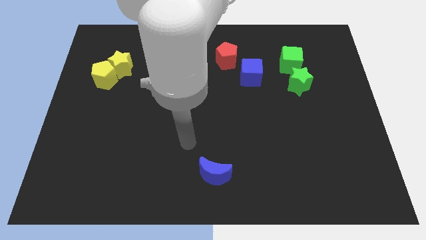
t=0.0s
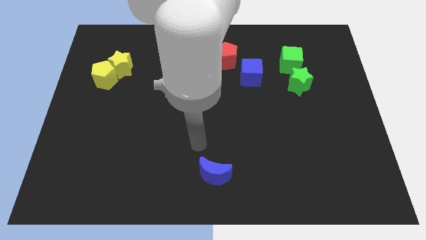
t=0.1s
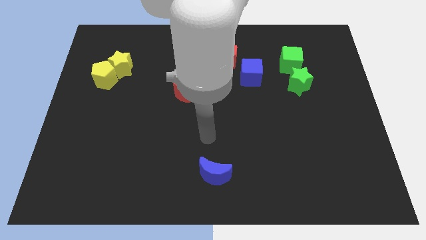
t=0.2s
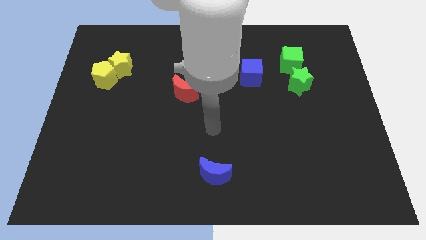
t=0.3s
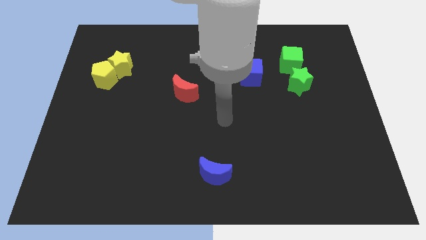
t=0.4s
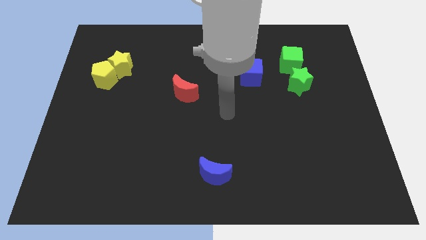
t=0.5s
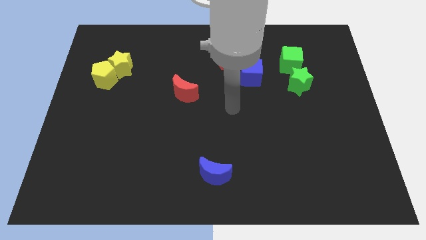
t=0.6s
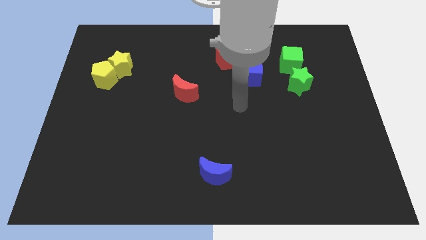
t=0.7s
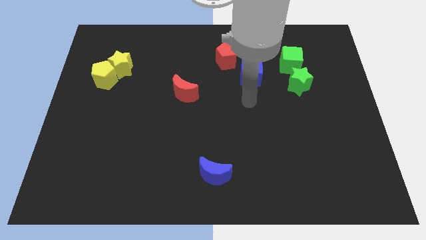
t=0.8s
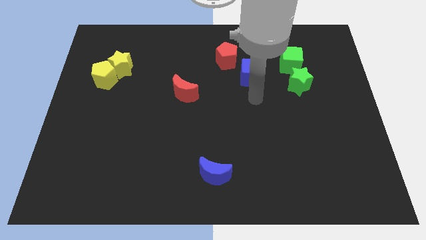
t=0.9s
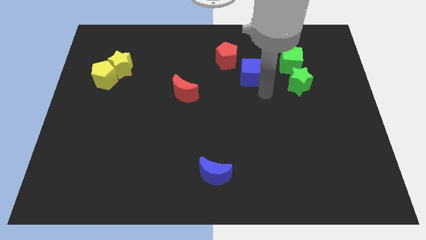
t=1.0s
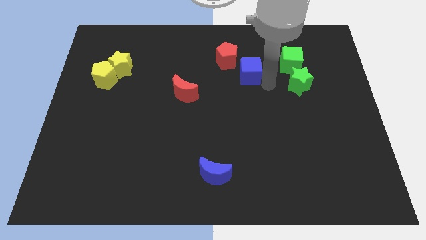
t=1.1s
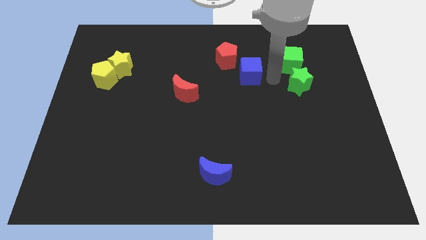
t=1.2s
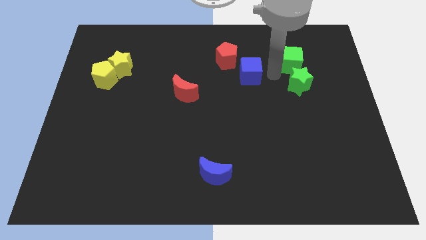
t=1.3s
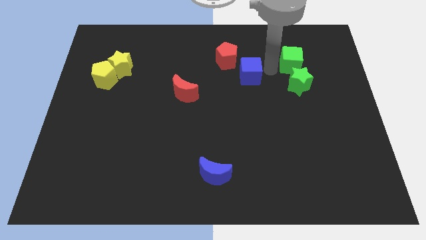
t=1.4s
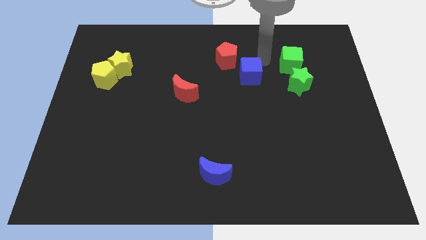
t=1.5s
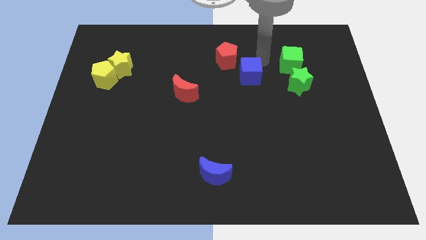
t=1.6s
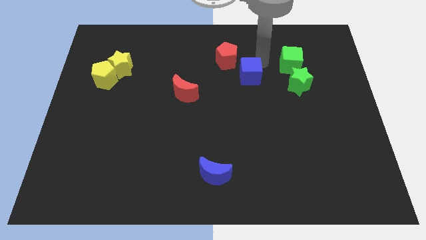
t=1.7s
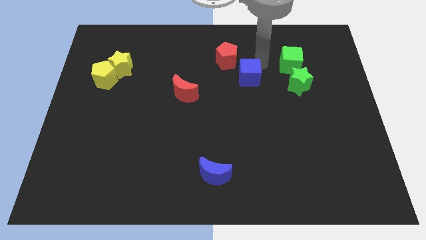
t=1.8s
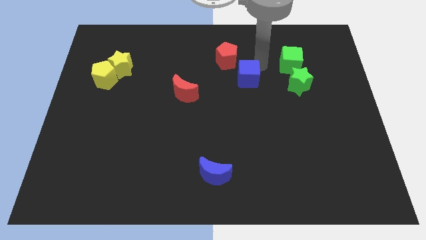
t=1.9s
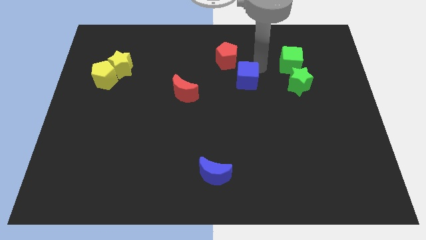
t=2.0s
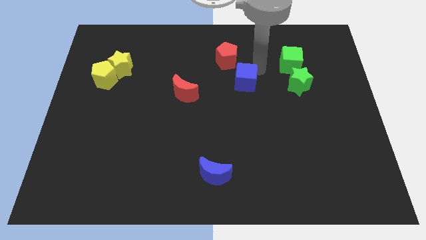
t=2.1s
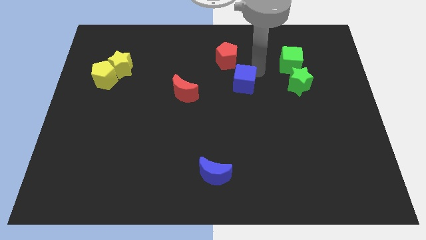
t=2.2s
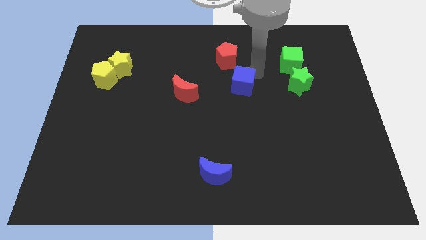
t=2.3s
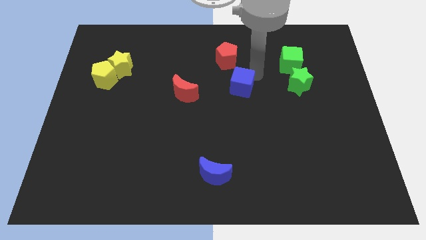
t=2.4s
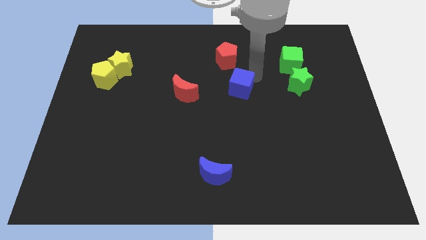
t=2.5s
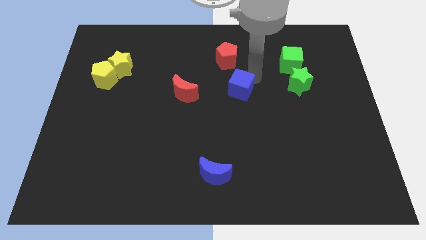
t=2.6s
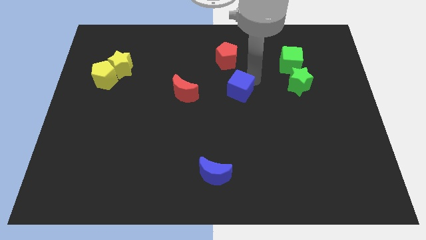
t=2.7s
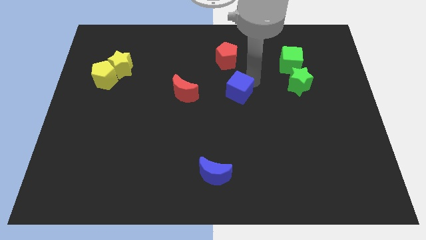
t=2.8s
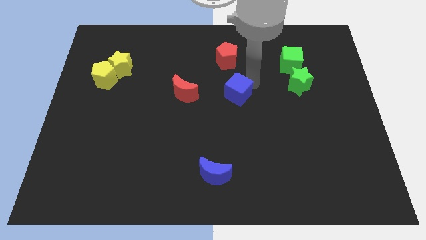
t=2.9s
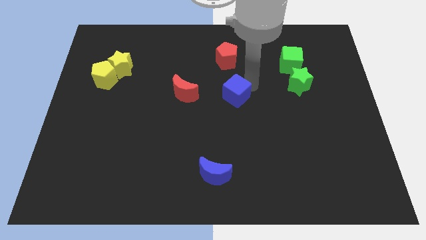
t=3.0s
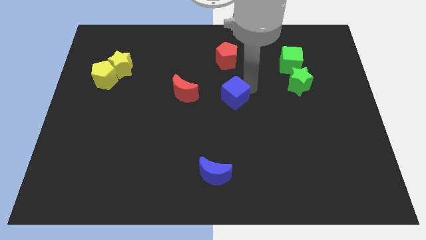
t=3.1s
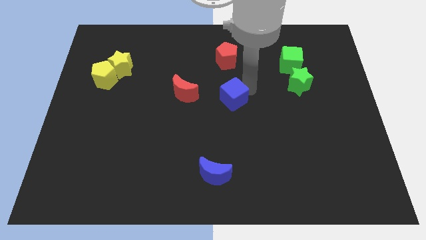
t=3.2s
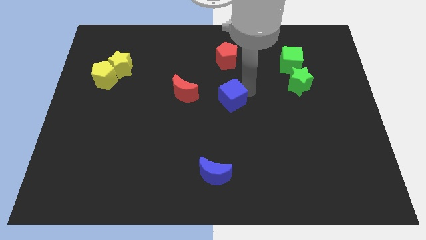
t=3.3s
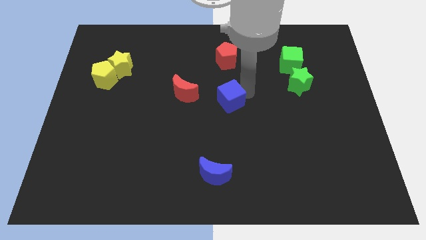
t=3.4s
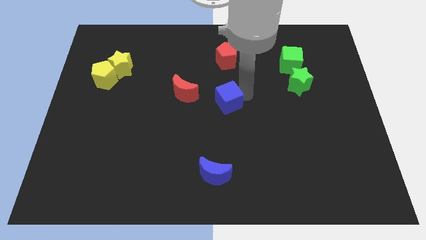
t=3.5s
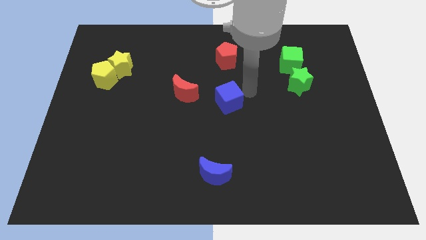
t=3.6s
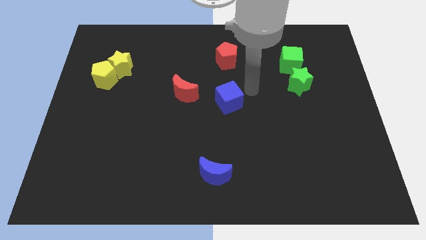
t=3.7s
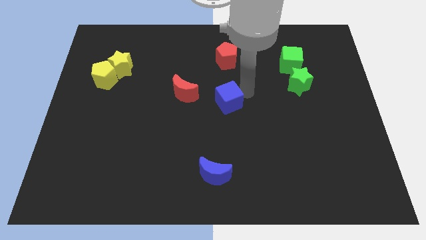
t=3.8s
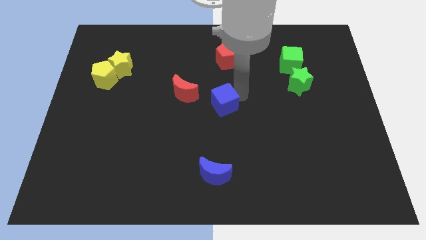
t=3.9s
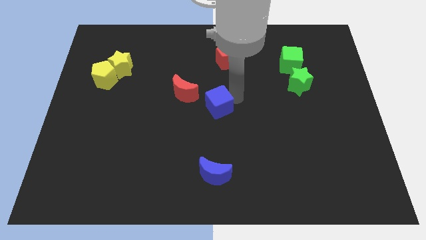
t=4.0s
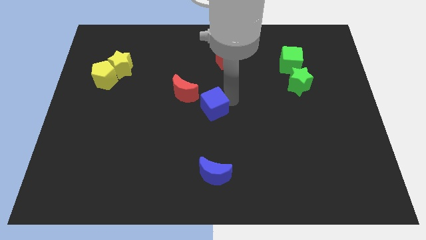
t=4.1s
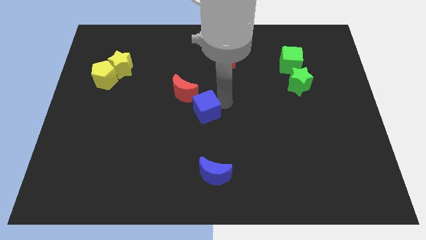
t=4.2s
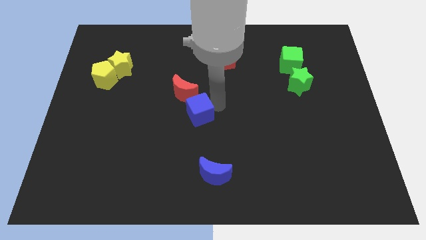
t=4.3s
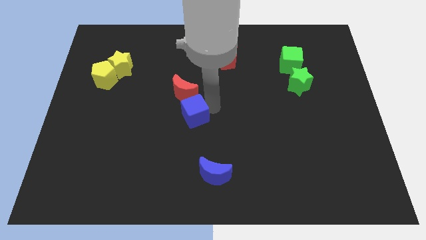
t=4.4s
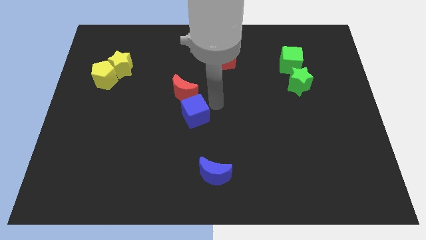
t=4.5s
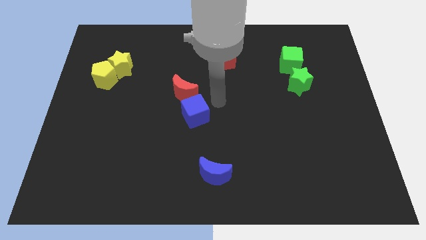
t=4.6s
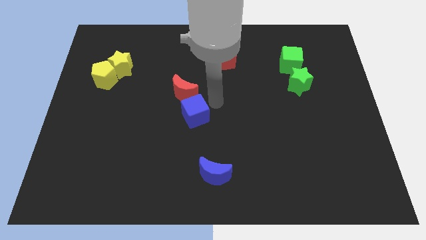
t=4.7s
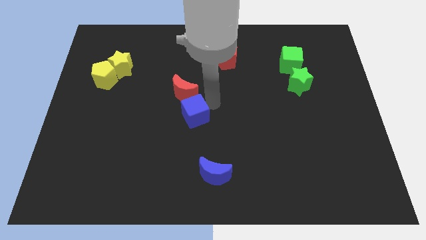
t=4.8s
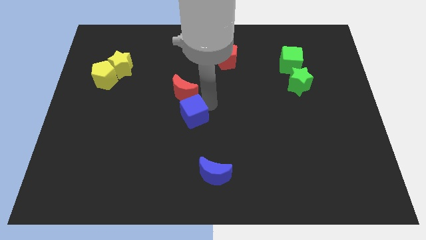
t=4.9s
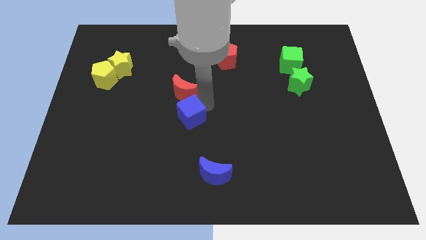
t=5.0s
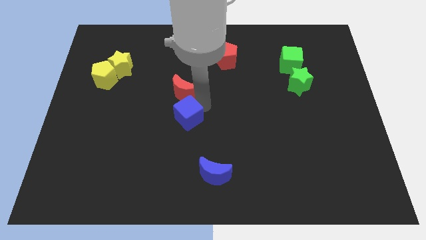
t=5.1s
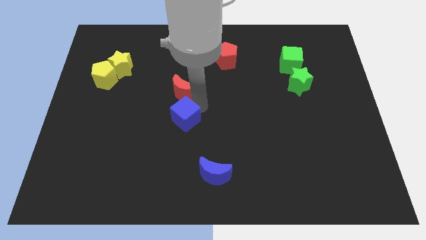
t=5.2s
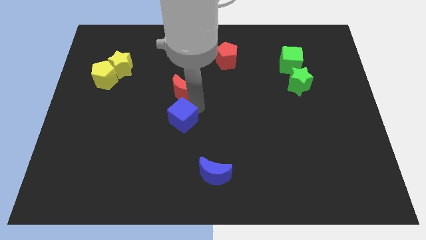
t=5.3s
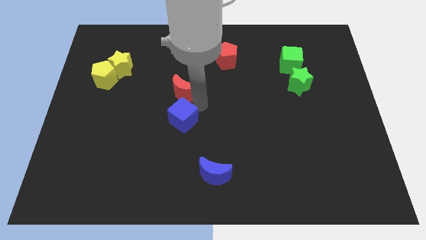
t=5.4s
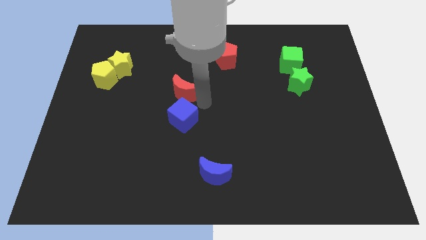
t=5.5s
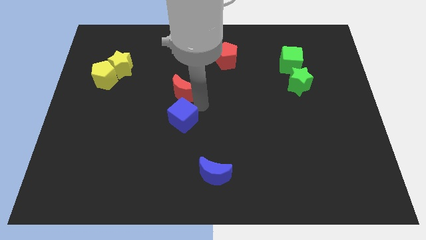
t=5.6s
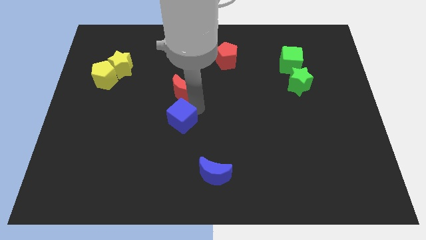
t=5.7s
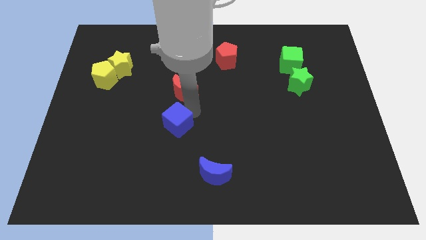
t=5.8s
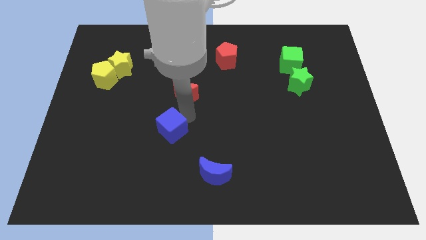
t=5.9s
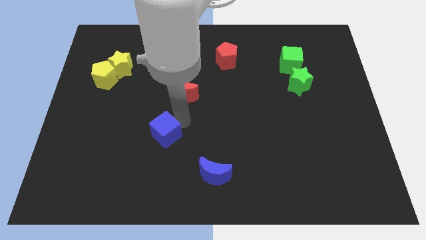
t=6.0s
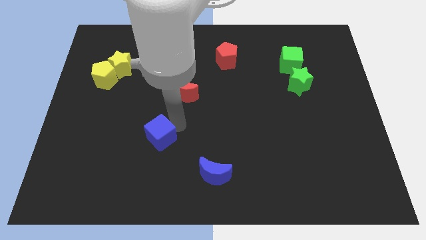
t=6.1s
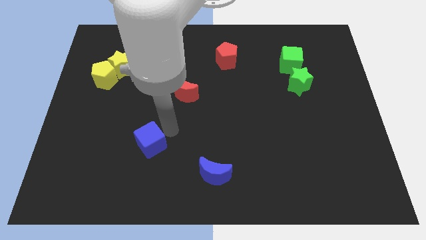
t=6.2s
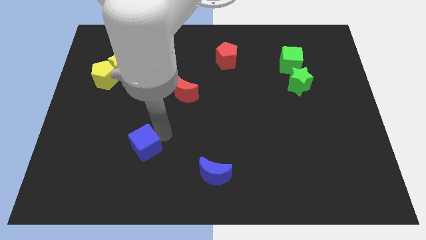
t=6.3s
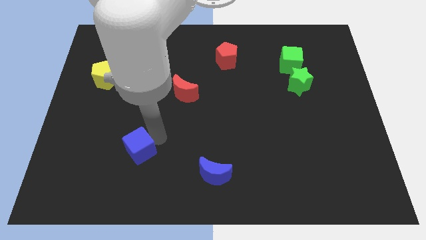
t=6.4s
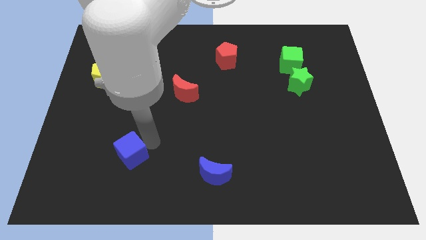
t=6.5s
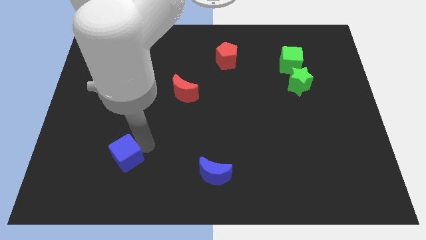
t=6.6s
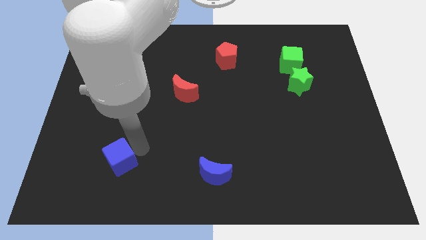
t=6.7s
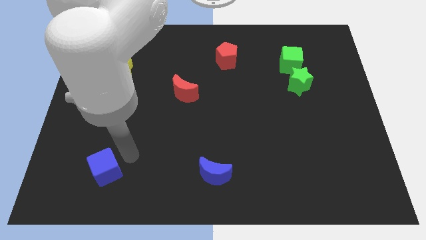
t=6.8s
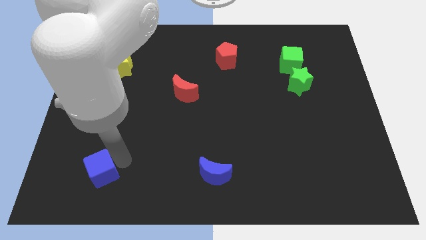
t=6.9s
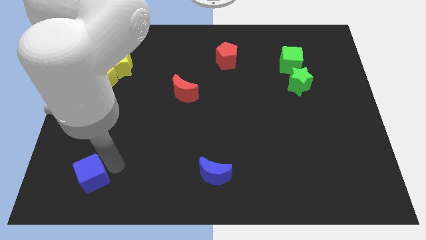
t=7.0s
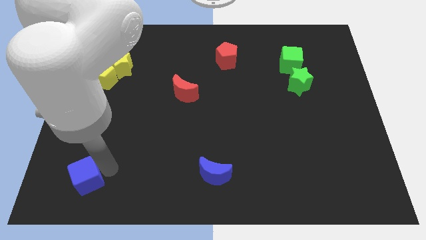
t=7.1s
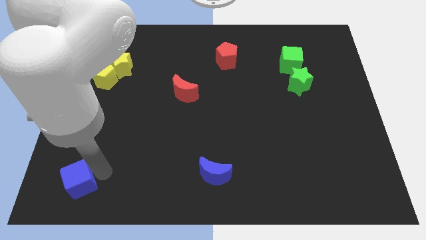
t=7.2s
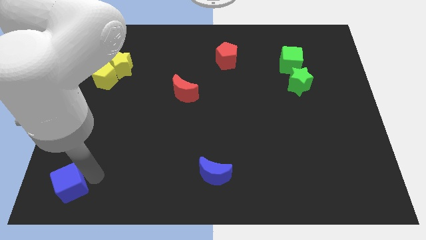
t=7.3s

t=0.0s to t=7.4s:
move the blue cube to the bottom left of the board
